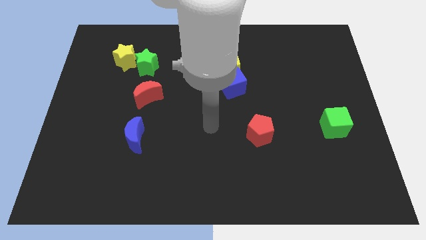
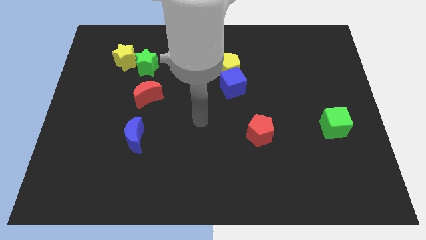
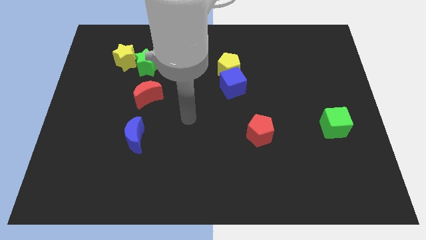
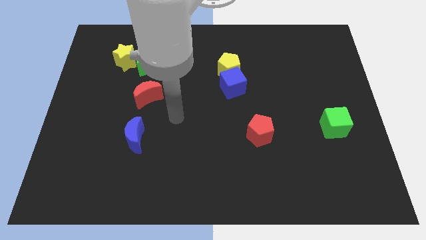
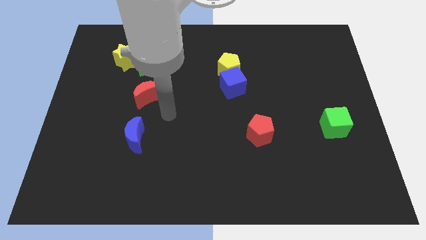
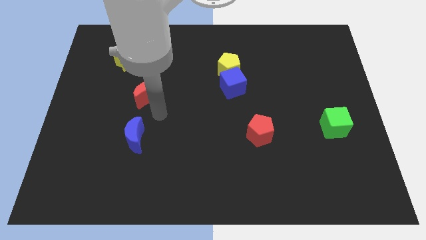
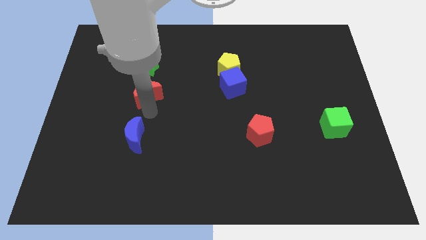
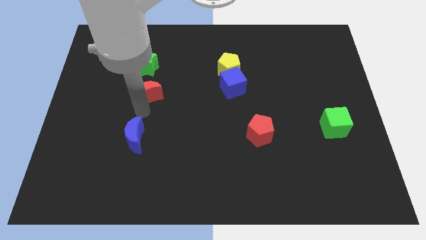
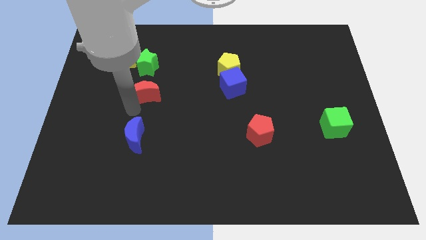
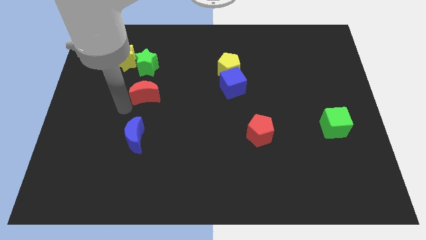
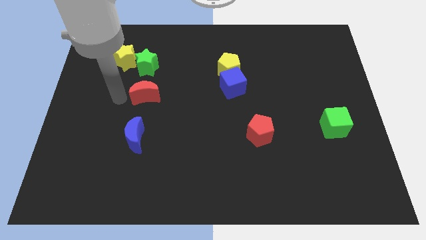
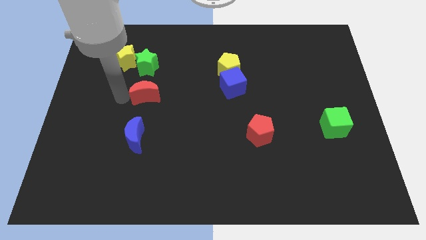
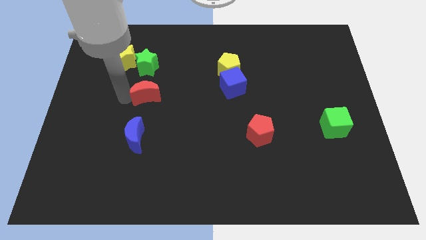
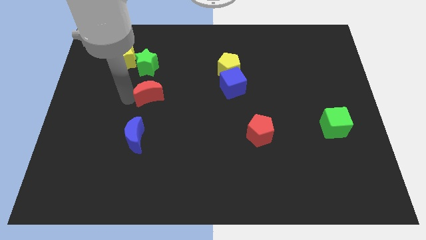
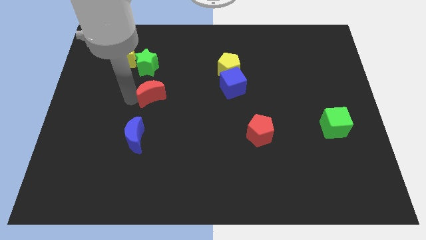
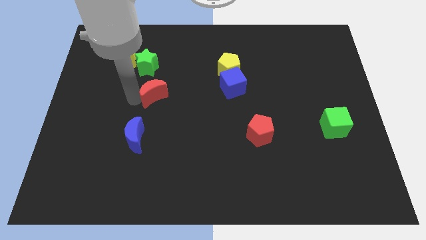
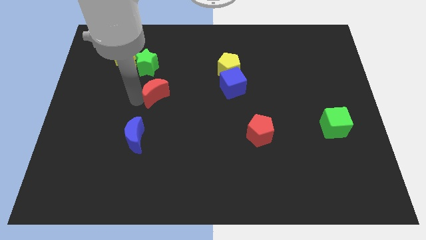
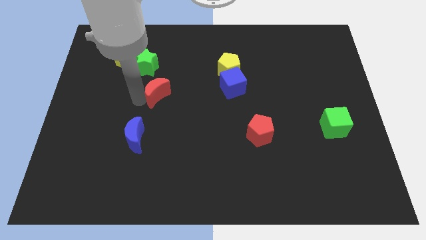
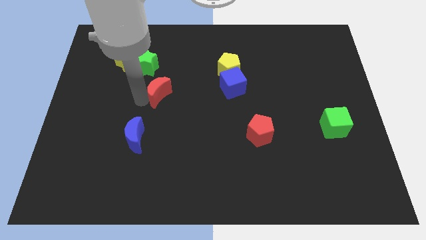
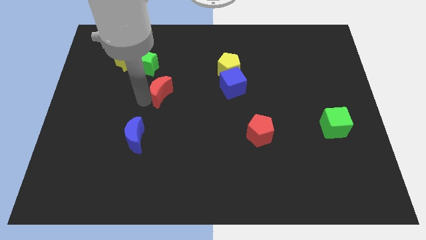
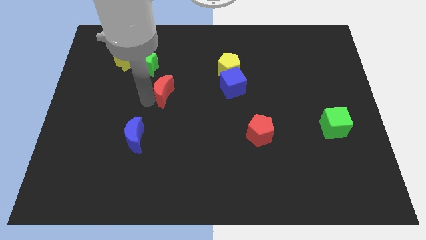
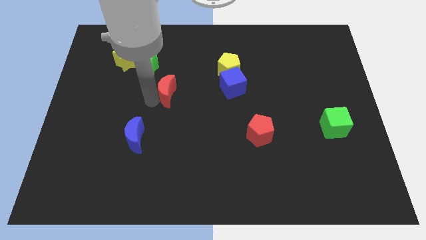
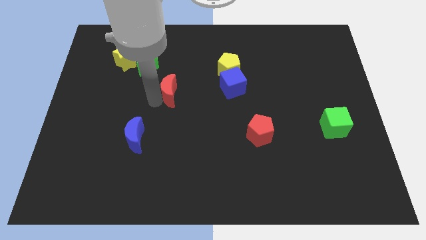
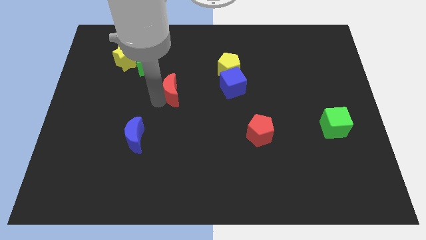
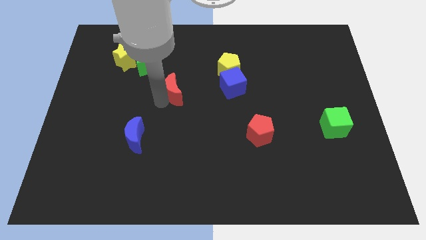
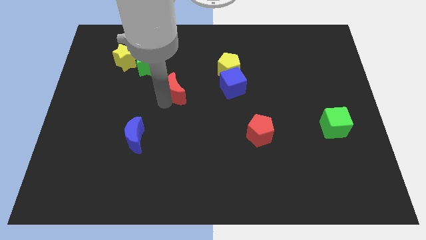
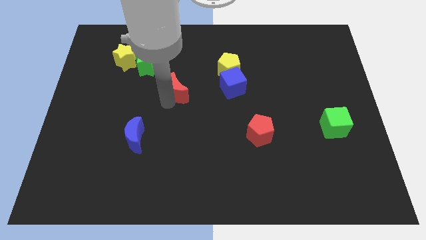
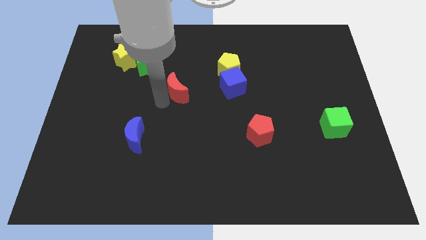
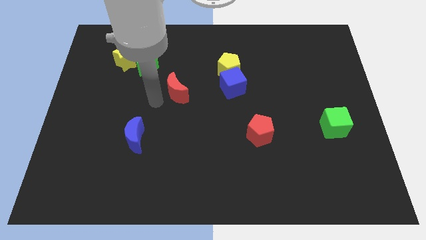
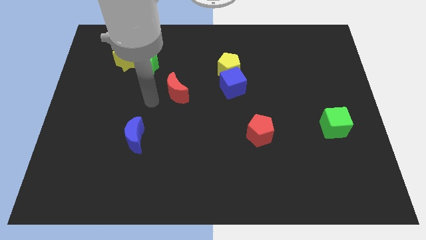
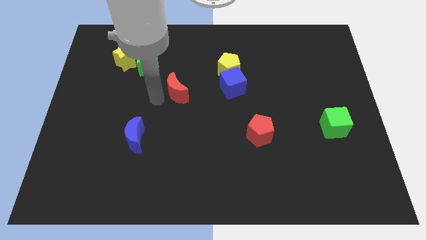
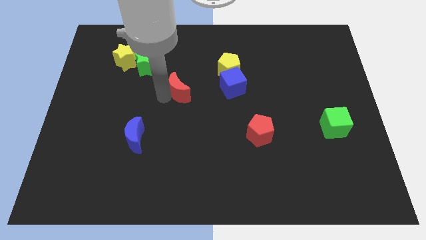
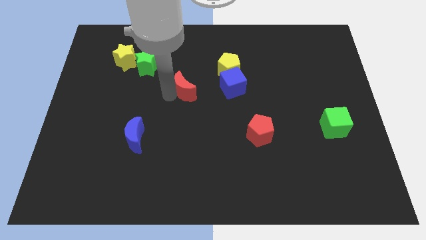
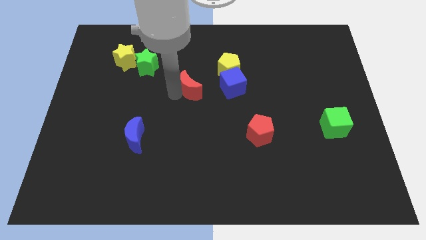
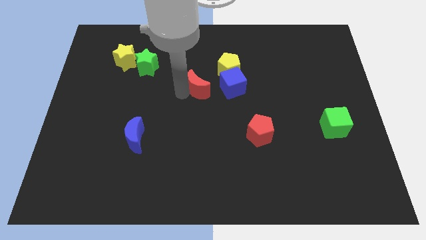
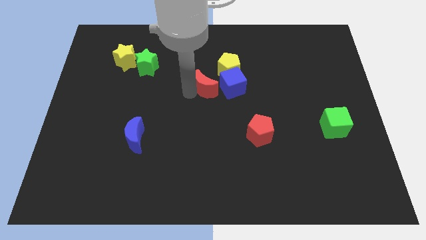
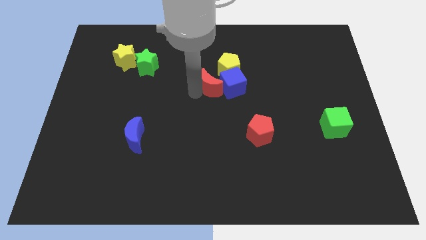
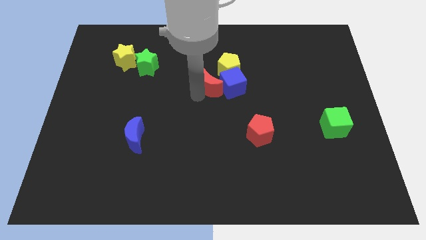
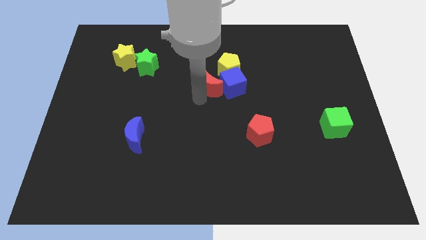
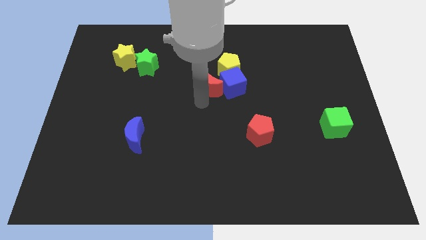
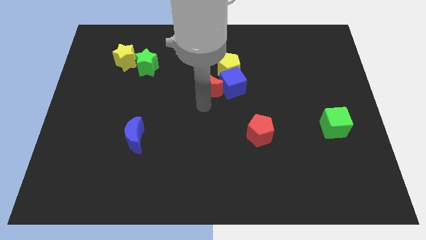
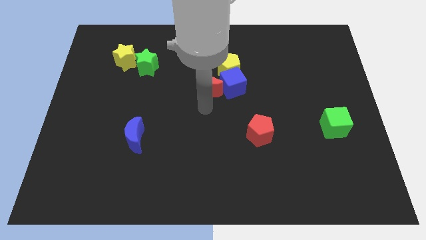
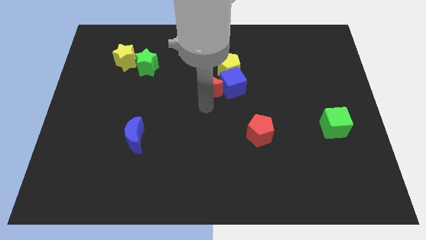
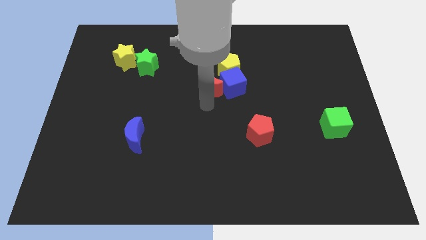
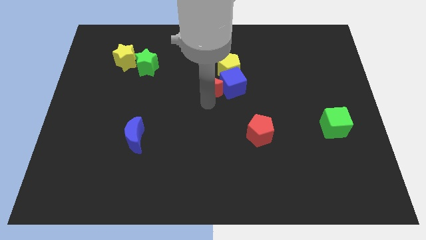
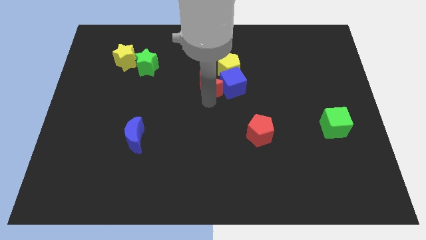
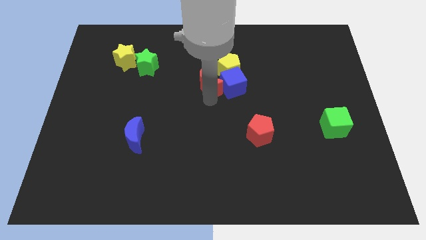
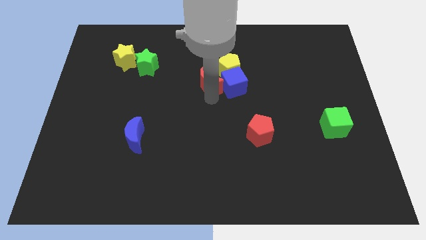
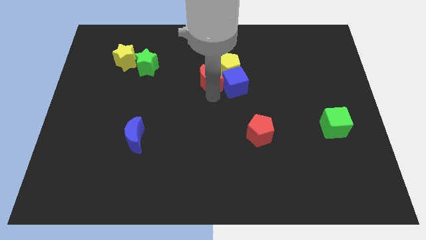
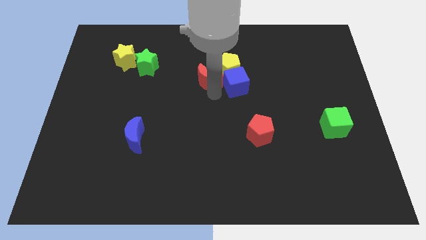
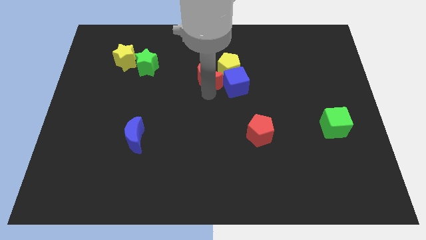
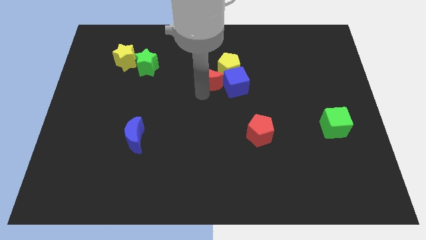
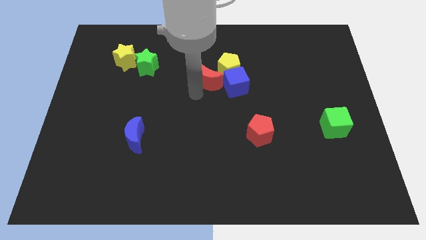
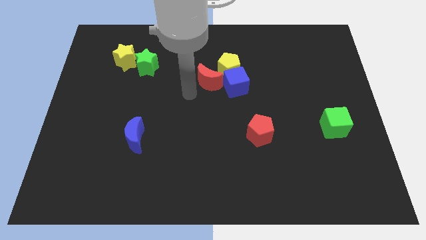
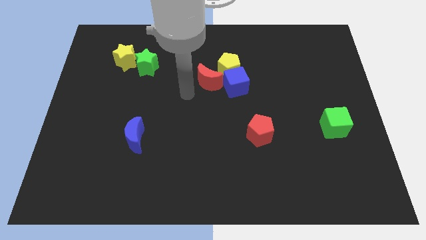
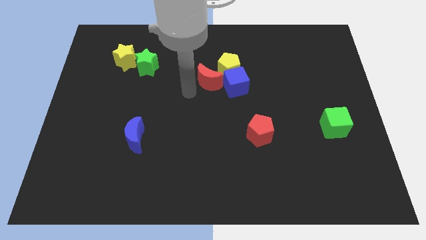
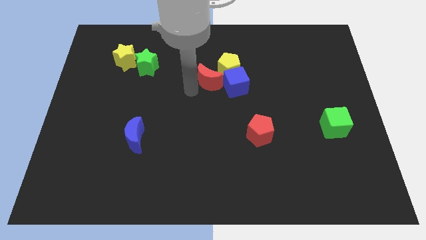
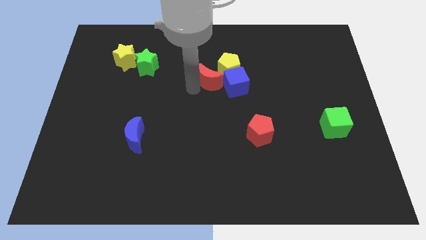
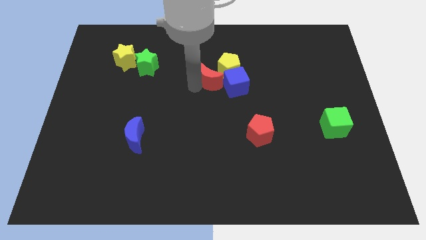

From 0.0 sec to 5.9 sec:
move the red moon to the yellow pentagon

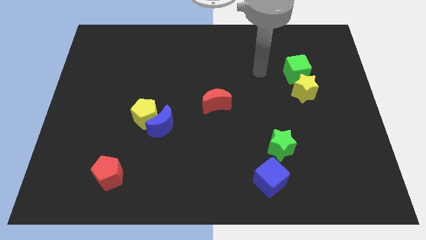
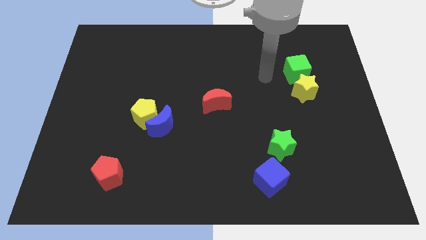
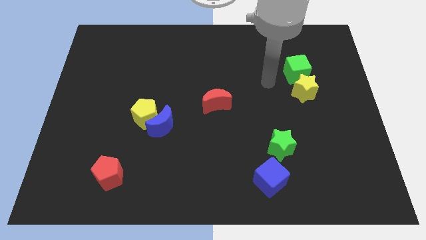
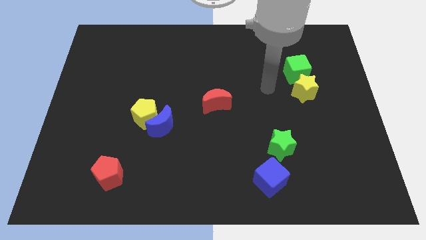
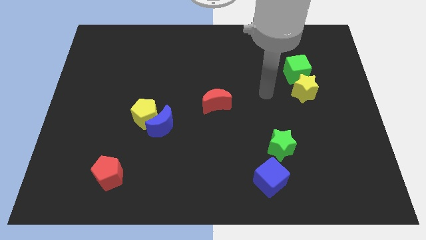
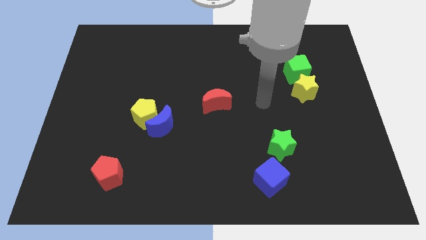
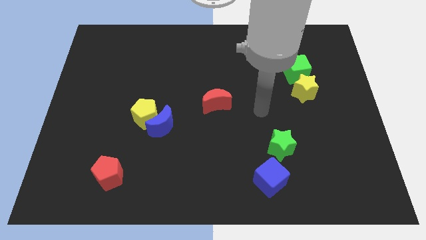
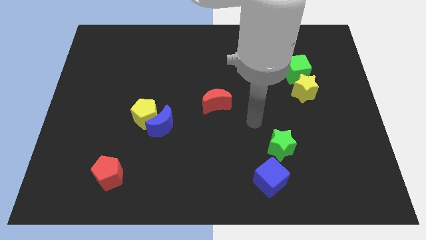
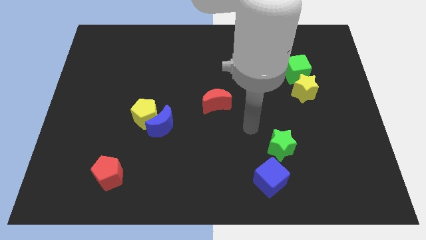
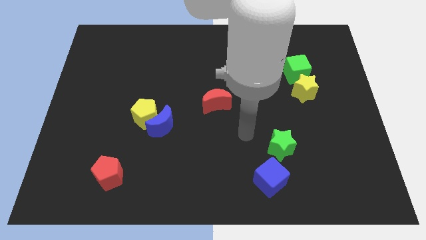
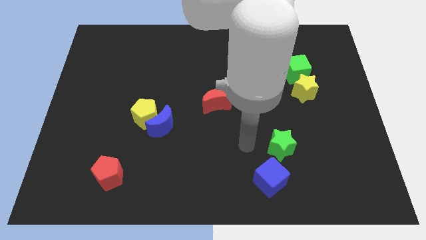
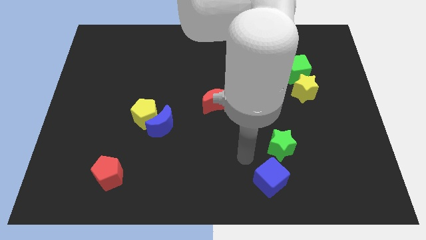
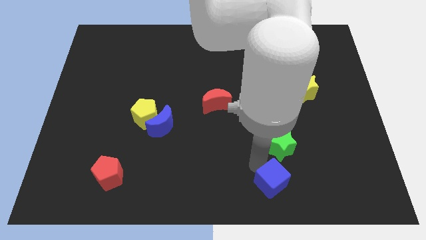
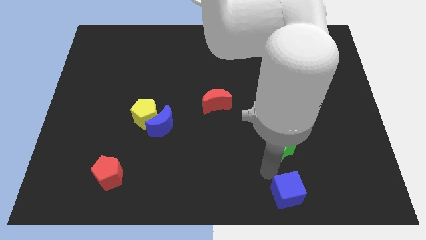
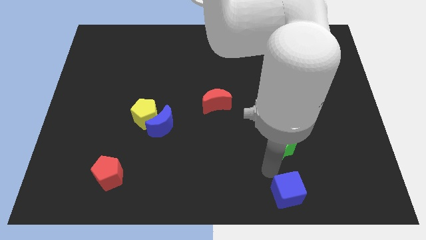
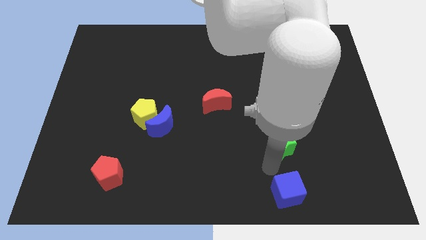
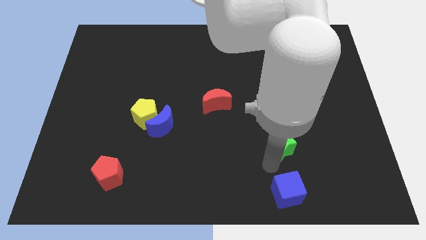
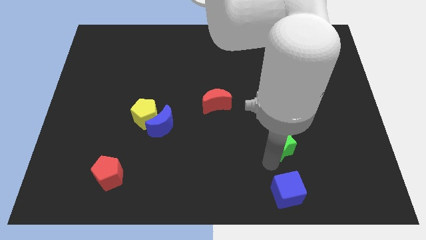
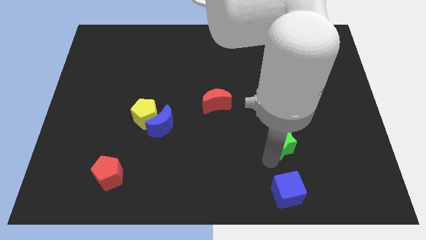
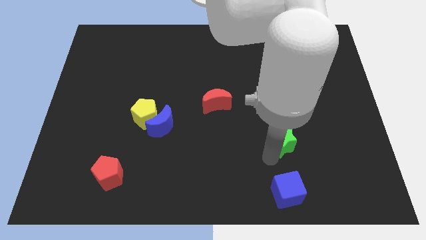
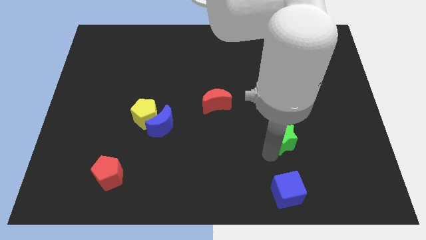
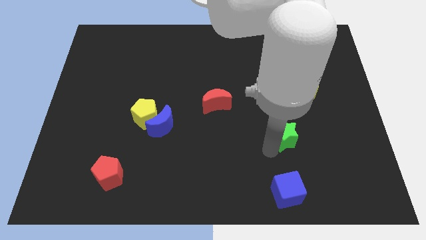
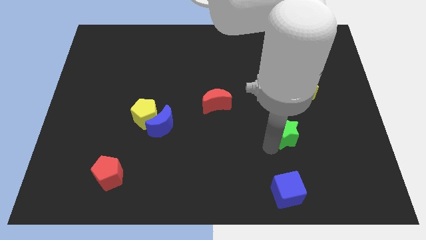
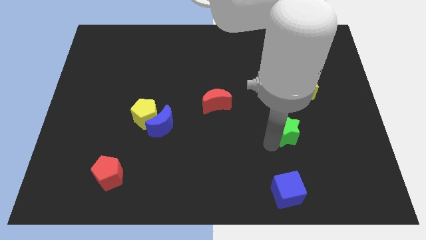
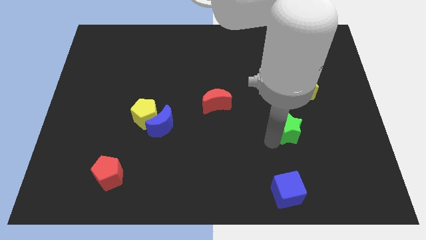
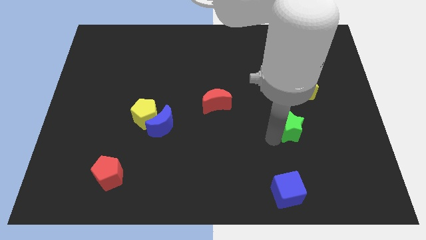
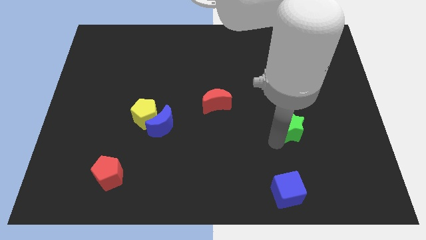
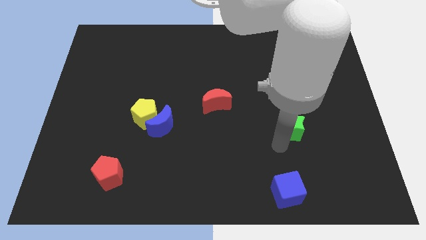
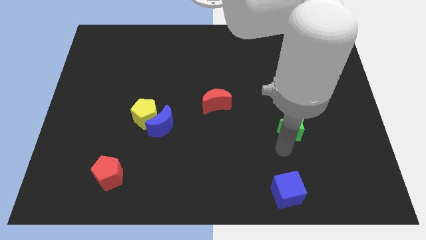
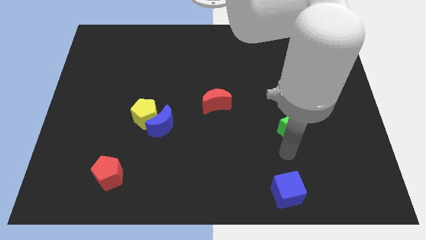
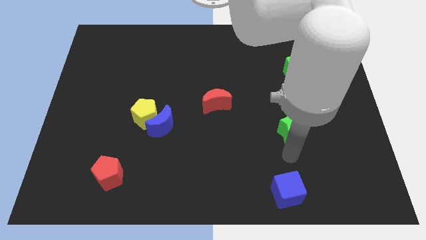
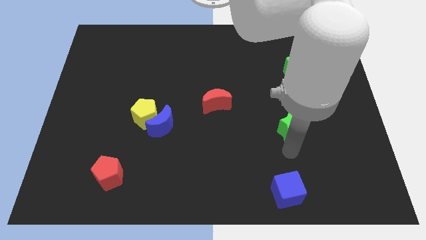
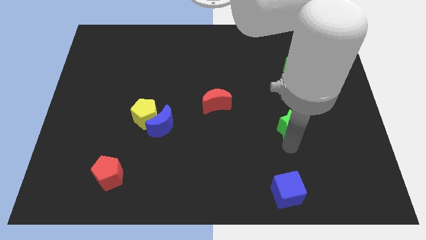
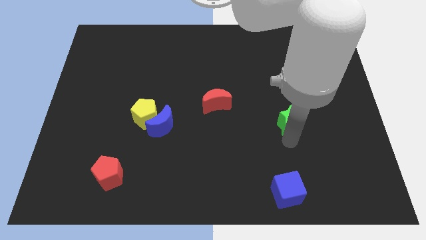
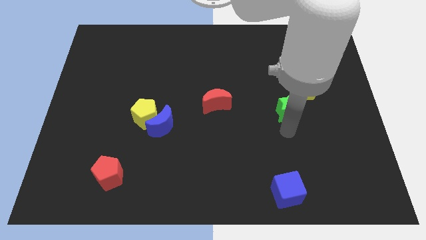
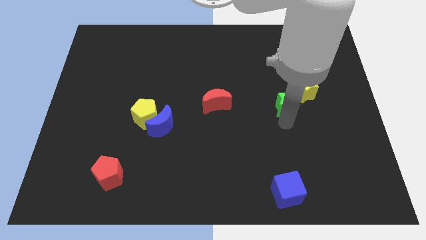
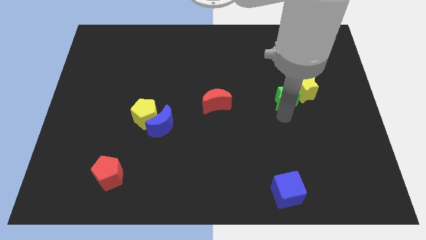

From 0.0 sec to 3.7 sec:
push the green star close to the yellow star
